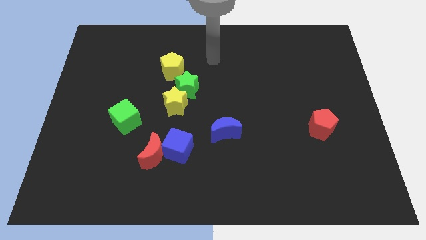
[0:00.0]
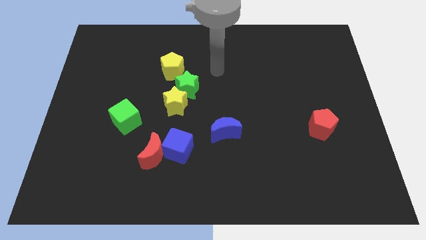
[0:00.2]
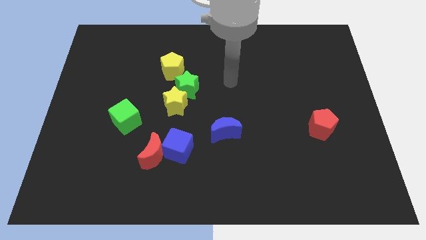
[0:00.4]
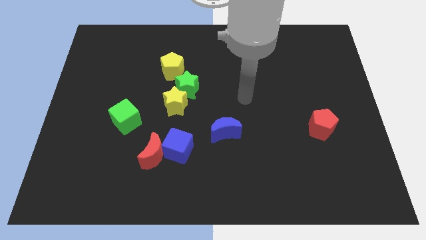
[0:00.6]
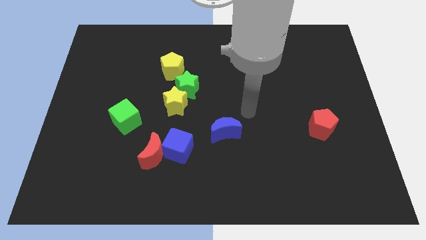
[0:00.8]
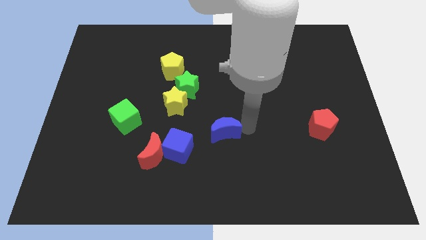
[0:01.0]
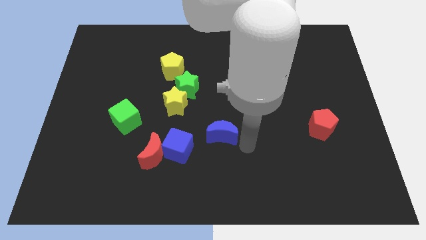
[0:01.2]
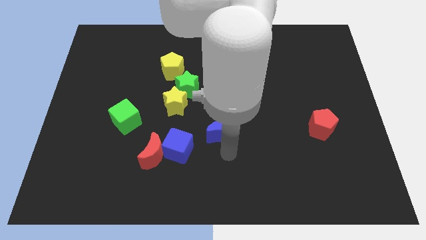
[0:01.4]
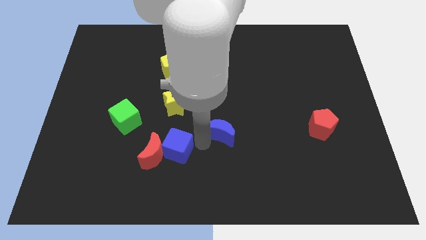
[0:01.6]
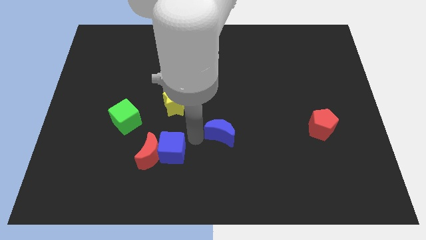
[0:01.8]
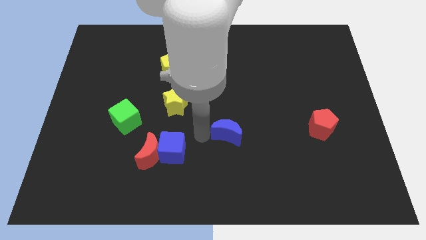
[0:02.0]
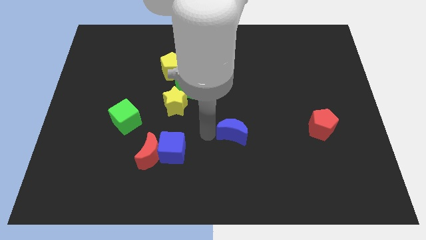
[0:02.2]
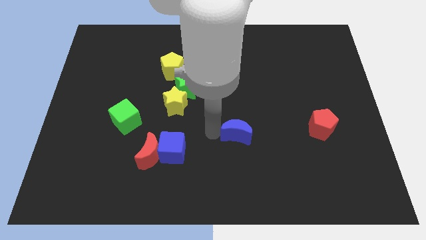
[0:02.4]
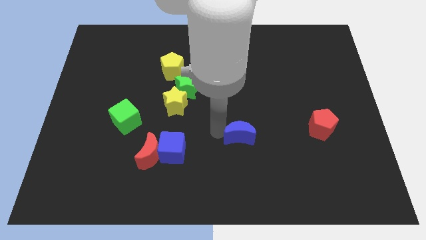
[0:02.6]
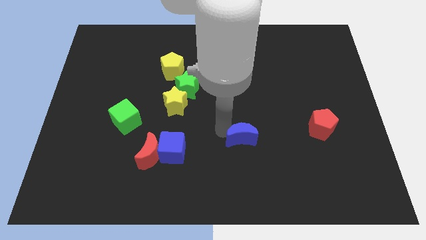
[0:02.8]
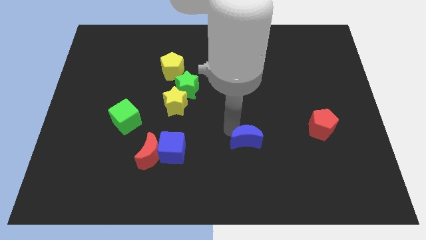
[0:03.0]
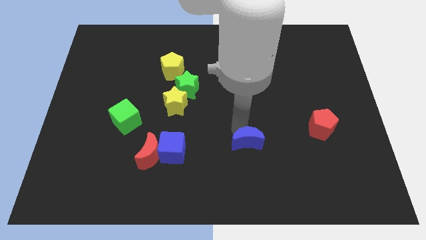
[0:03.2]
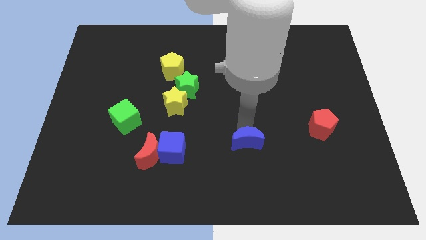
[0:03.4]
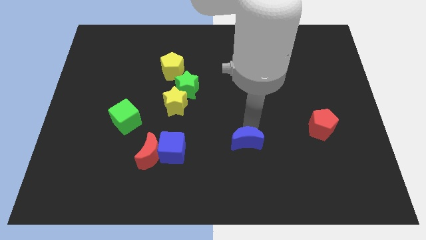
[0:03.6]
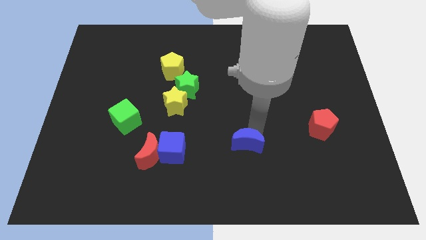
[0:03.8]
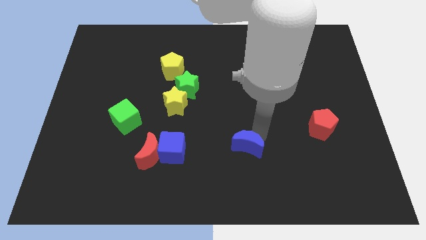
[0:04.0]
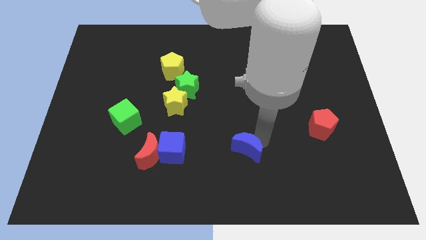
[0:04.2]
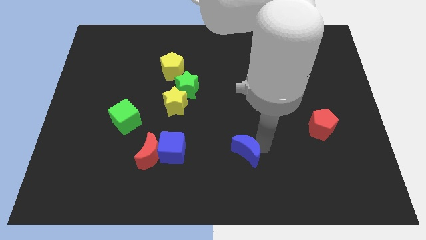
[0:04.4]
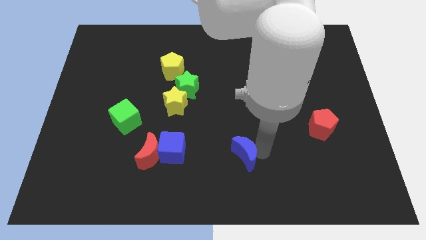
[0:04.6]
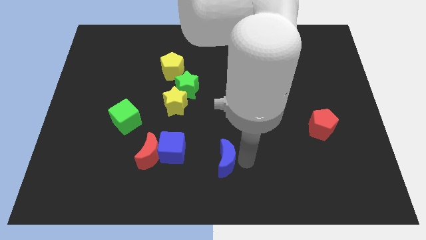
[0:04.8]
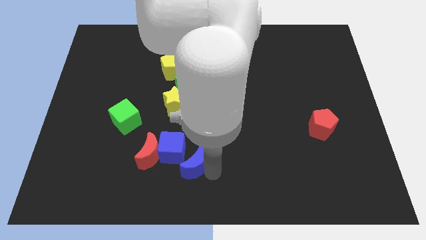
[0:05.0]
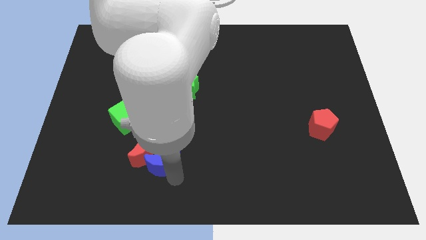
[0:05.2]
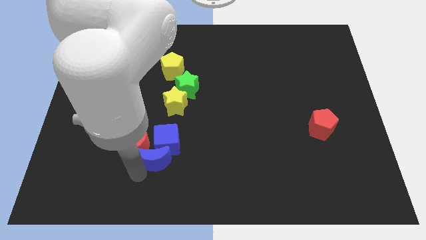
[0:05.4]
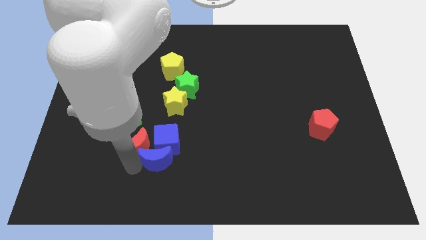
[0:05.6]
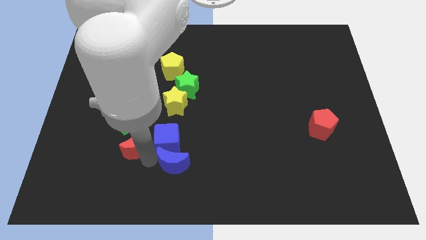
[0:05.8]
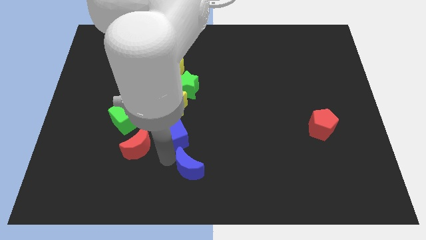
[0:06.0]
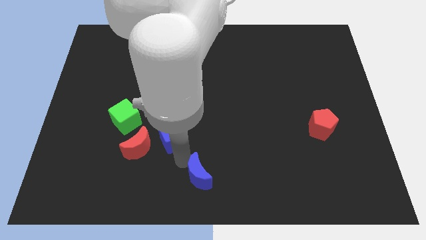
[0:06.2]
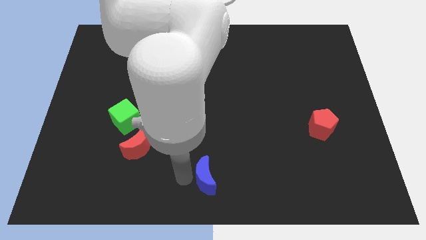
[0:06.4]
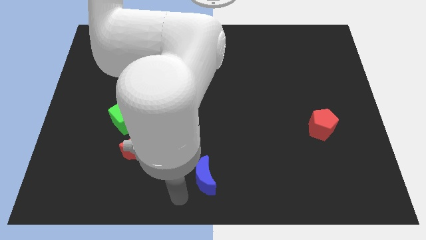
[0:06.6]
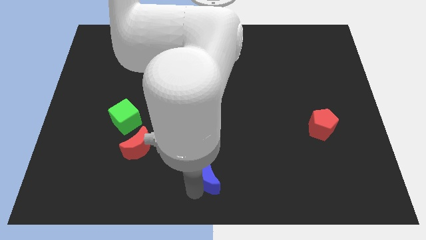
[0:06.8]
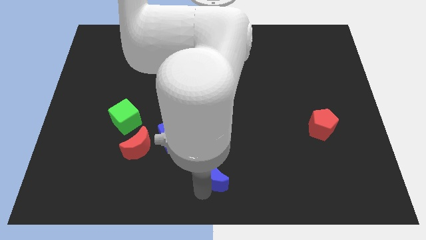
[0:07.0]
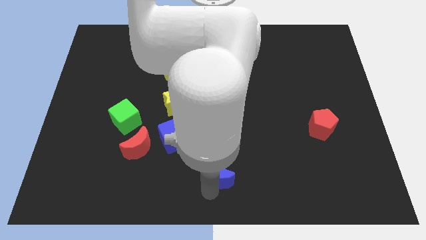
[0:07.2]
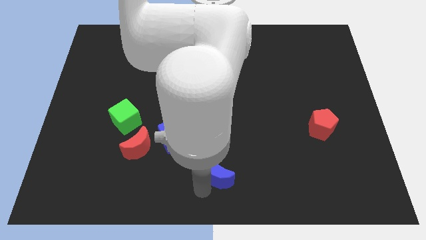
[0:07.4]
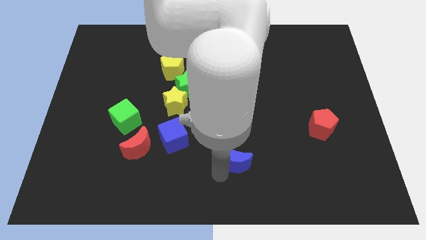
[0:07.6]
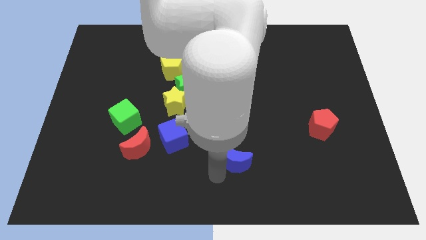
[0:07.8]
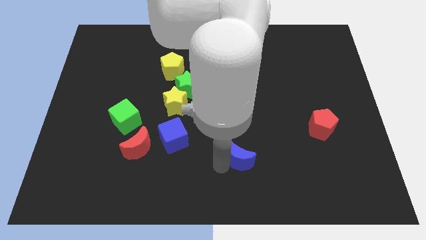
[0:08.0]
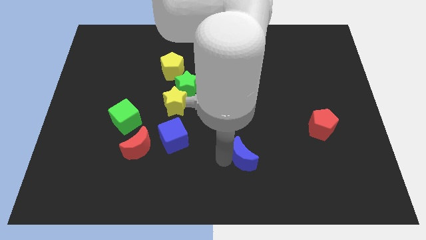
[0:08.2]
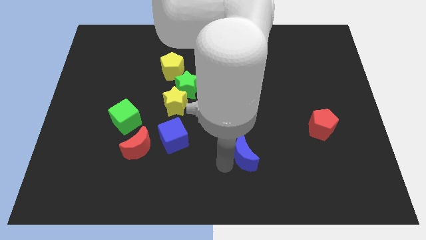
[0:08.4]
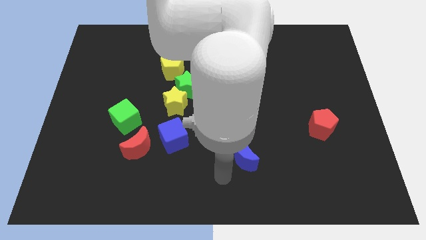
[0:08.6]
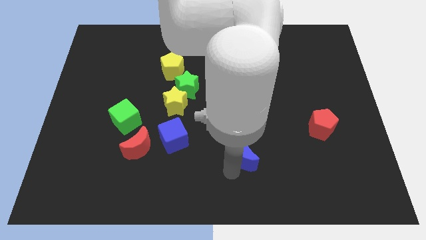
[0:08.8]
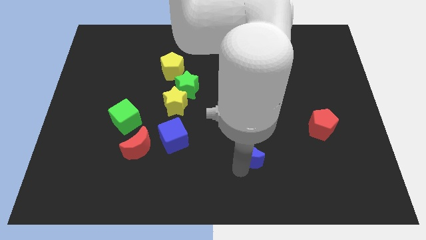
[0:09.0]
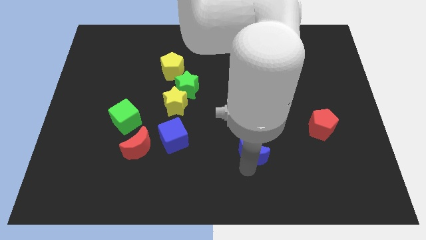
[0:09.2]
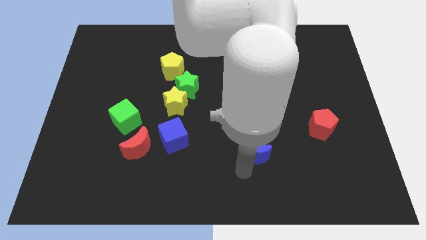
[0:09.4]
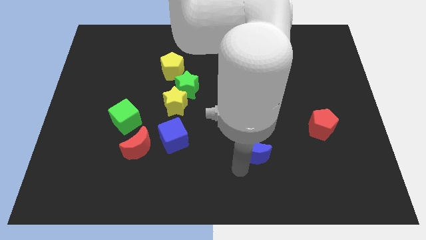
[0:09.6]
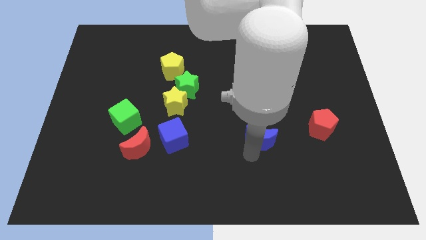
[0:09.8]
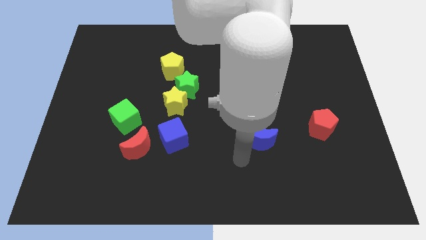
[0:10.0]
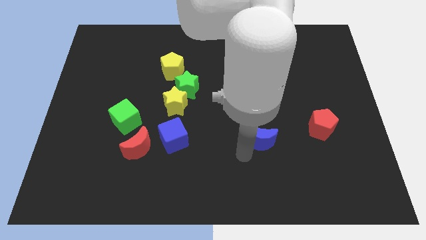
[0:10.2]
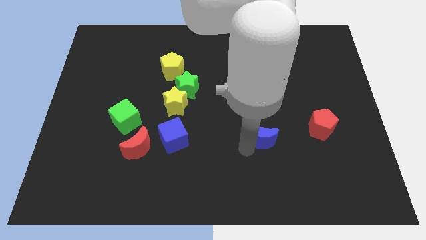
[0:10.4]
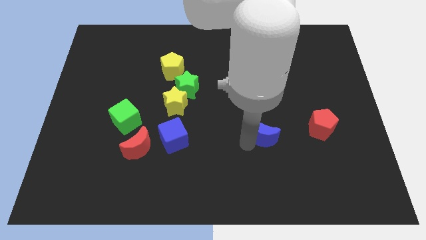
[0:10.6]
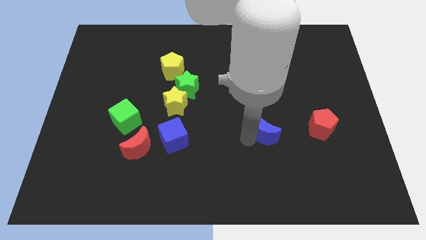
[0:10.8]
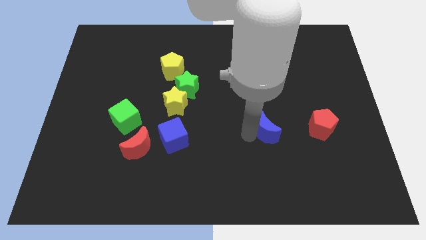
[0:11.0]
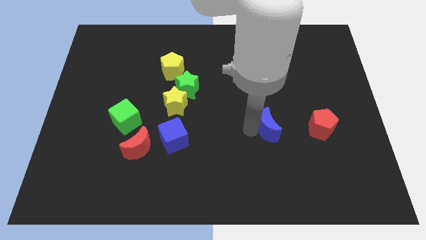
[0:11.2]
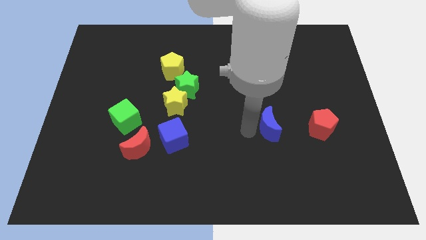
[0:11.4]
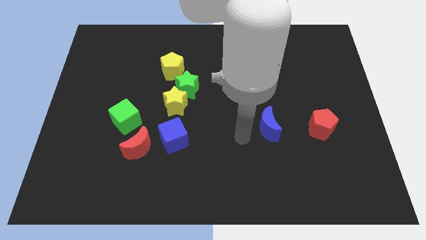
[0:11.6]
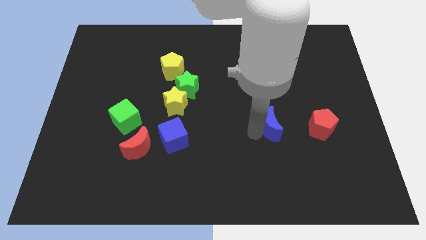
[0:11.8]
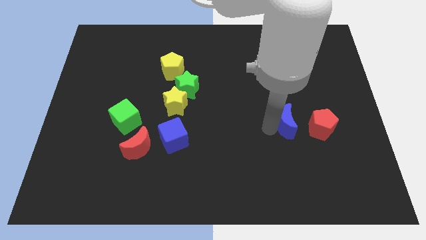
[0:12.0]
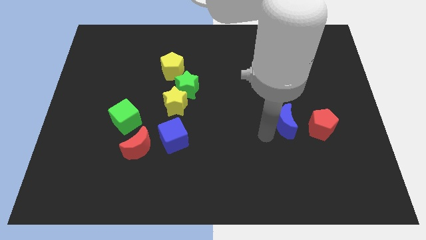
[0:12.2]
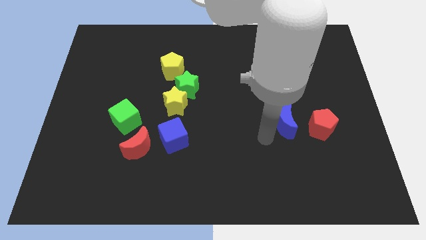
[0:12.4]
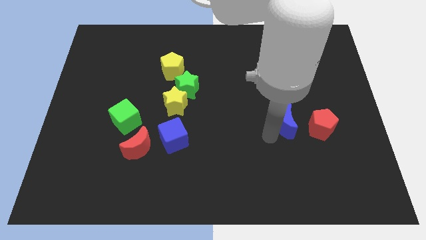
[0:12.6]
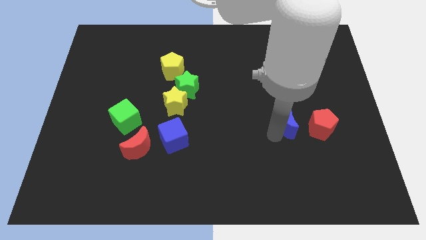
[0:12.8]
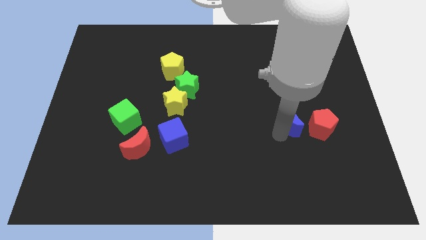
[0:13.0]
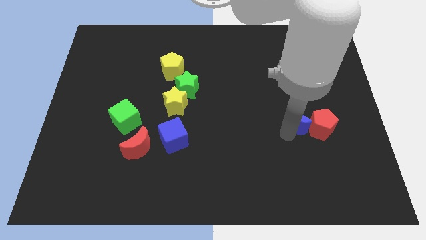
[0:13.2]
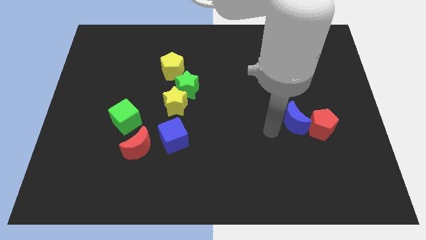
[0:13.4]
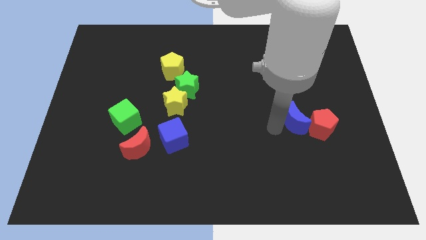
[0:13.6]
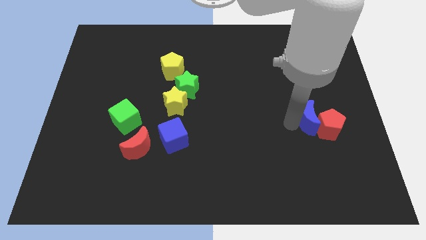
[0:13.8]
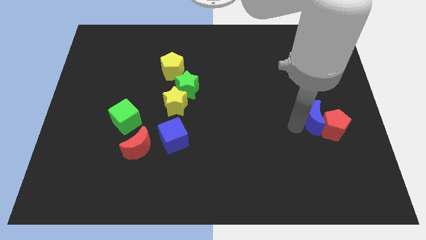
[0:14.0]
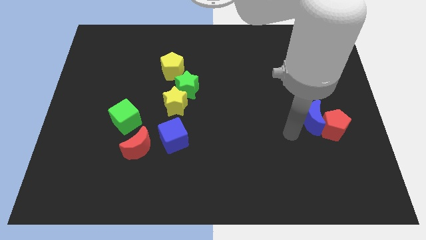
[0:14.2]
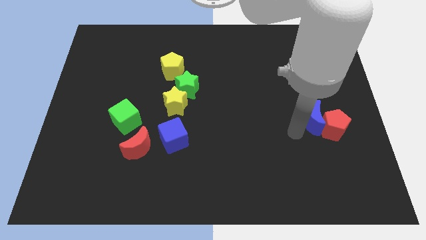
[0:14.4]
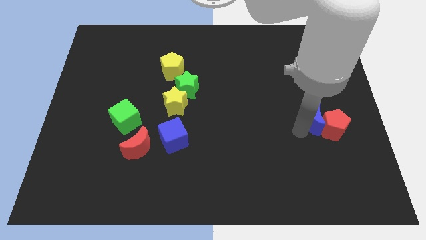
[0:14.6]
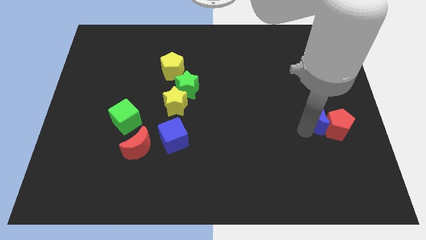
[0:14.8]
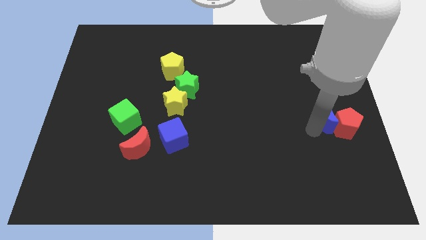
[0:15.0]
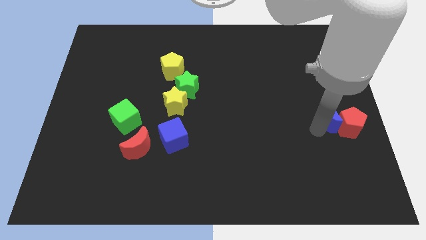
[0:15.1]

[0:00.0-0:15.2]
move the blue moon to the center right
